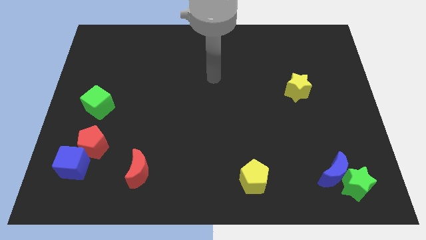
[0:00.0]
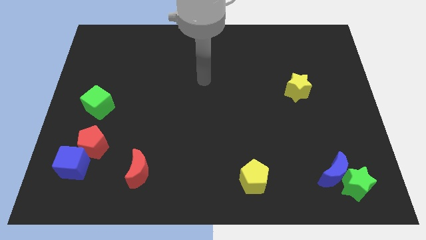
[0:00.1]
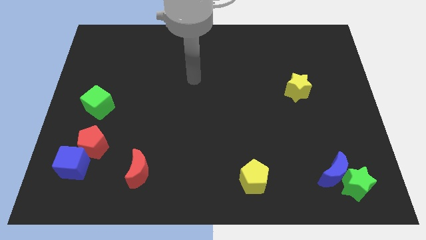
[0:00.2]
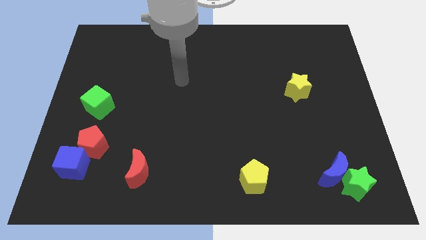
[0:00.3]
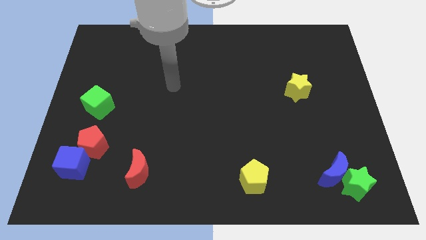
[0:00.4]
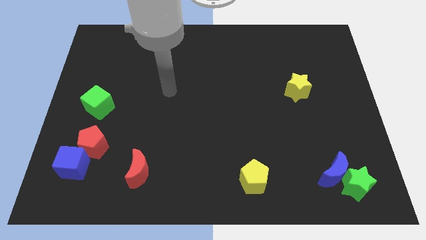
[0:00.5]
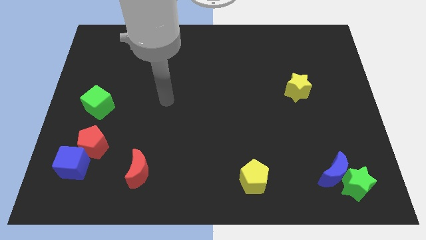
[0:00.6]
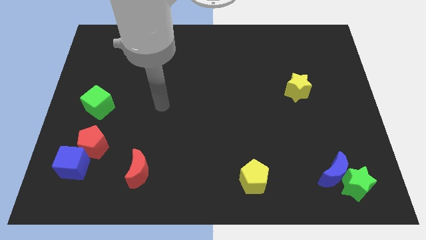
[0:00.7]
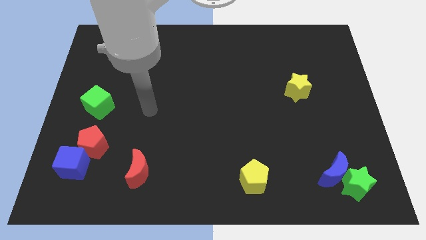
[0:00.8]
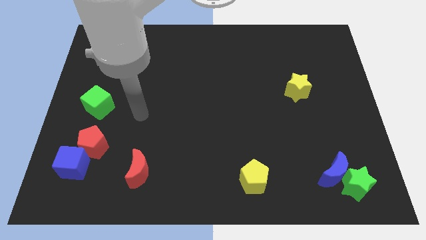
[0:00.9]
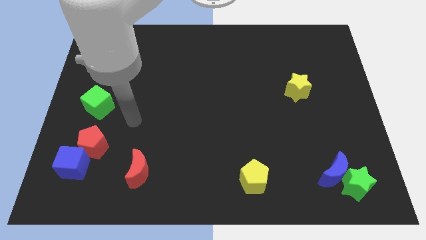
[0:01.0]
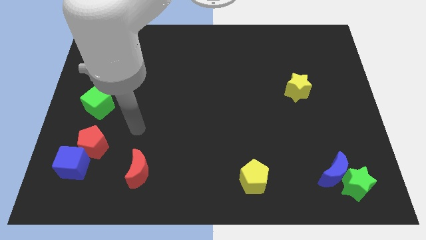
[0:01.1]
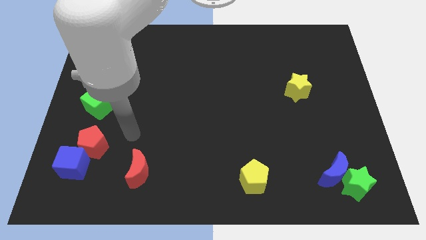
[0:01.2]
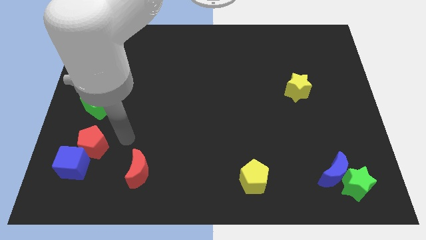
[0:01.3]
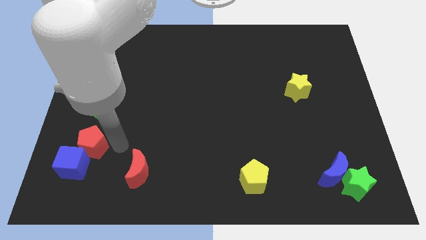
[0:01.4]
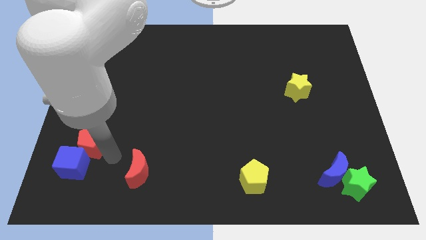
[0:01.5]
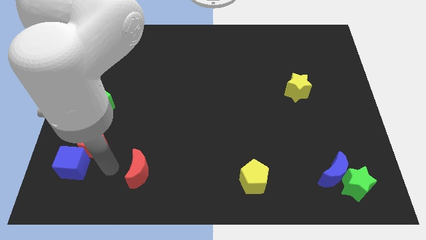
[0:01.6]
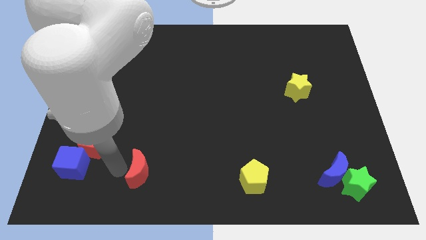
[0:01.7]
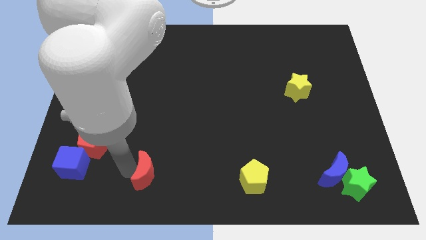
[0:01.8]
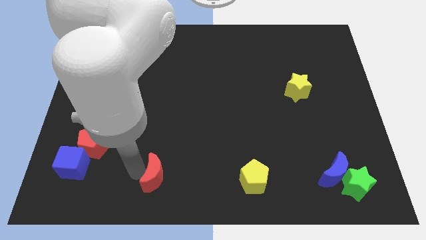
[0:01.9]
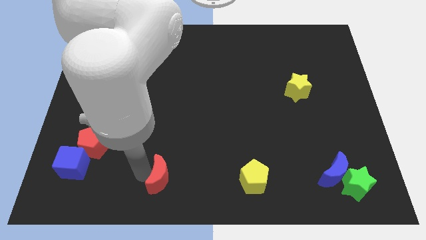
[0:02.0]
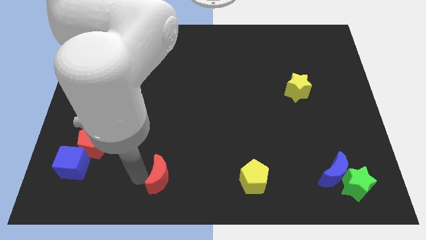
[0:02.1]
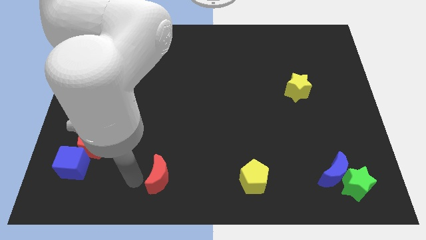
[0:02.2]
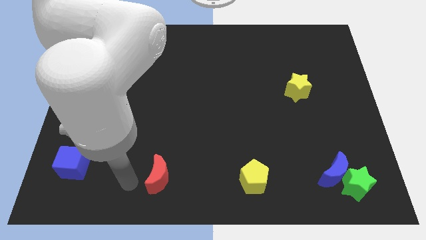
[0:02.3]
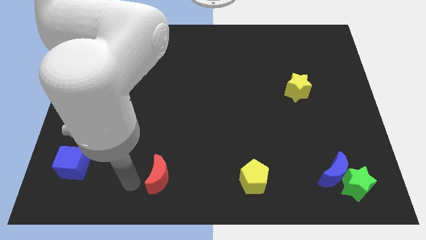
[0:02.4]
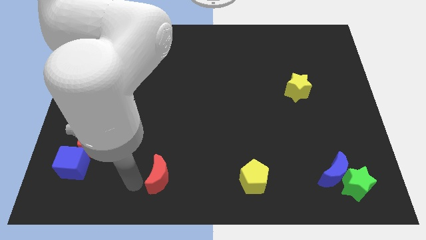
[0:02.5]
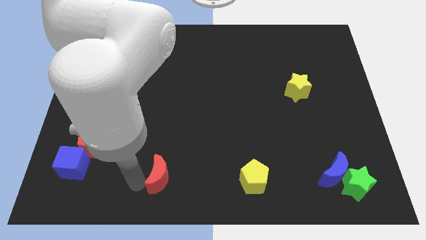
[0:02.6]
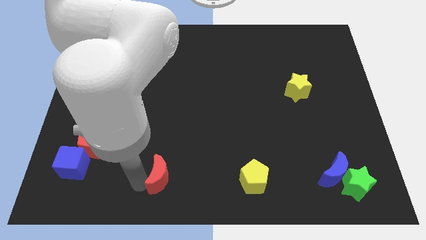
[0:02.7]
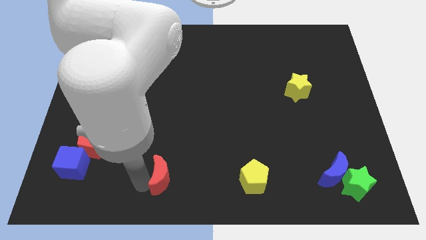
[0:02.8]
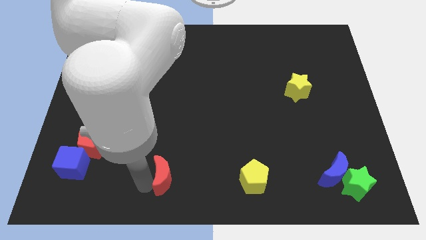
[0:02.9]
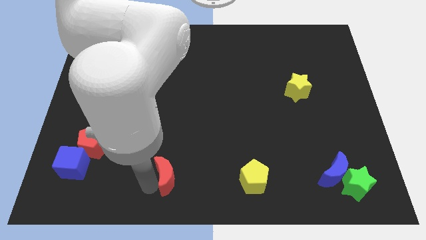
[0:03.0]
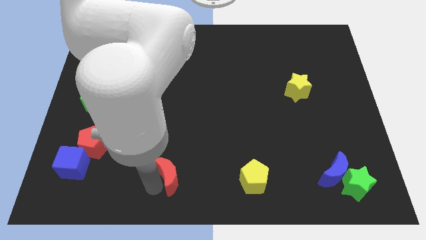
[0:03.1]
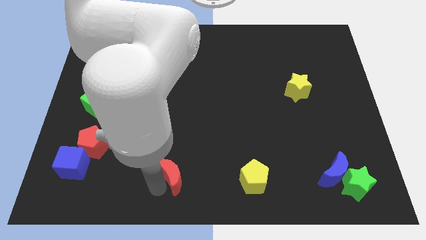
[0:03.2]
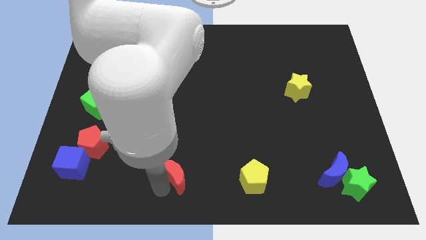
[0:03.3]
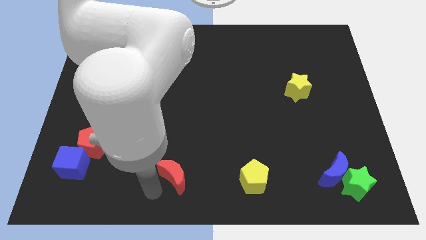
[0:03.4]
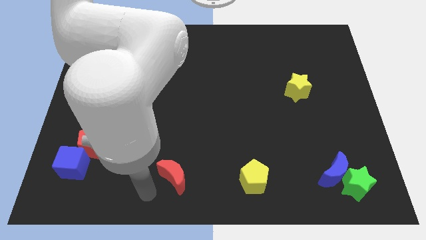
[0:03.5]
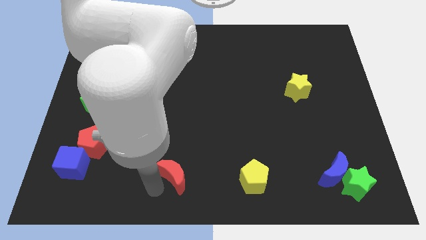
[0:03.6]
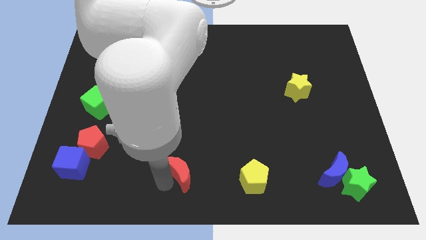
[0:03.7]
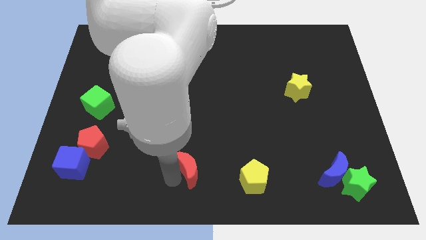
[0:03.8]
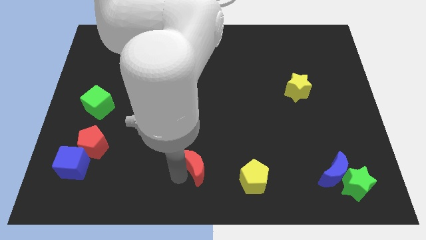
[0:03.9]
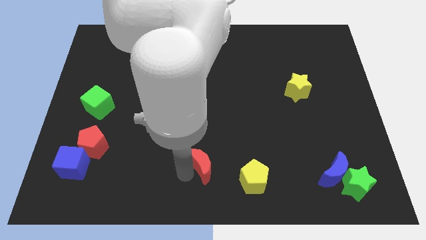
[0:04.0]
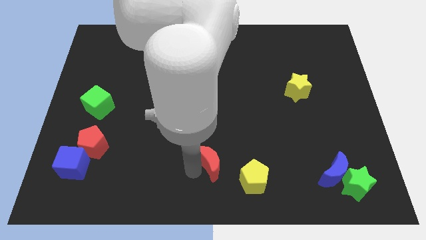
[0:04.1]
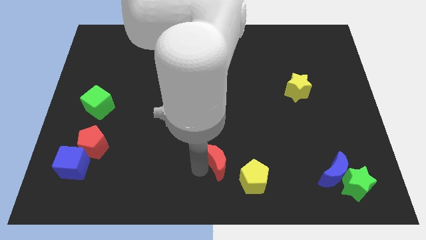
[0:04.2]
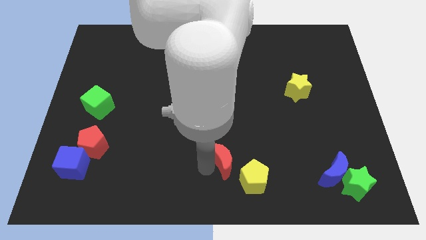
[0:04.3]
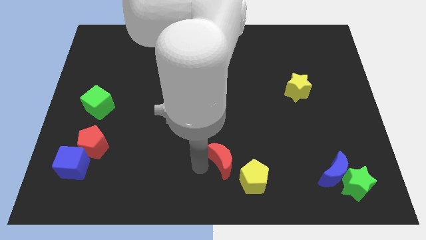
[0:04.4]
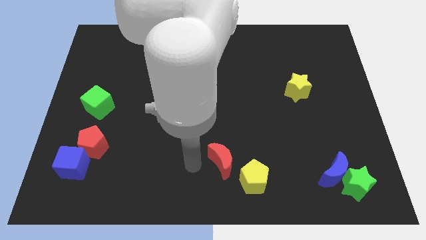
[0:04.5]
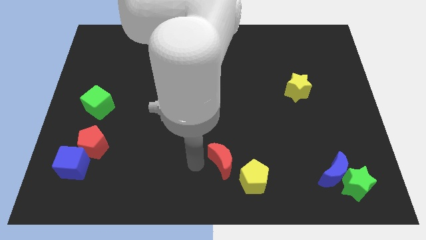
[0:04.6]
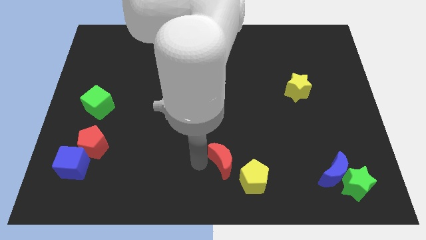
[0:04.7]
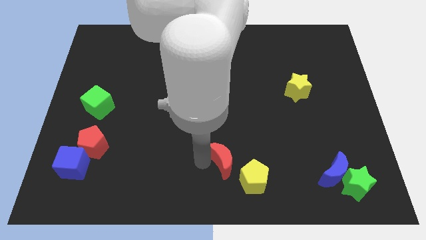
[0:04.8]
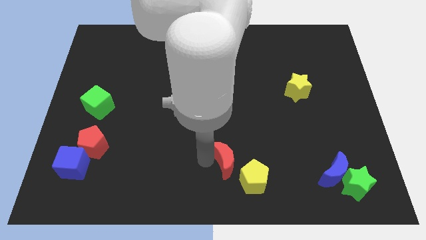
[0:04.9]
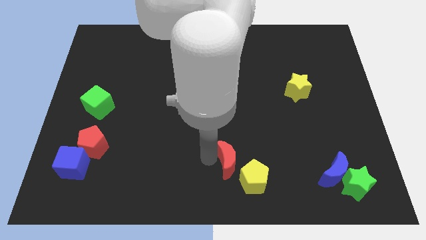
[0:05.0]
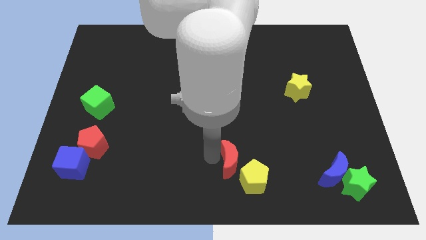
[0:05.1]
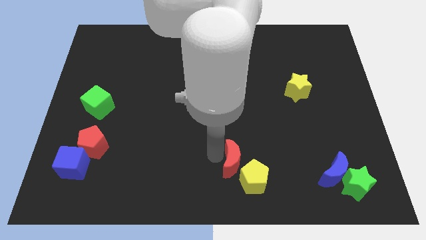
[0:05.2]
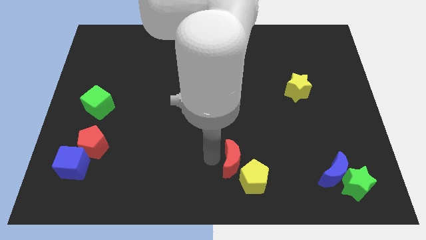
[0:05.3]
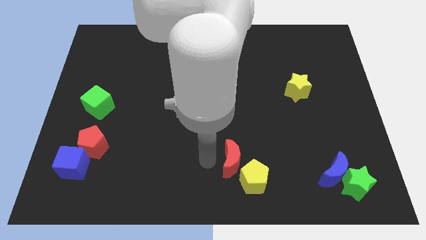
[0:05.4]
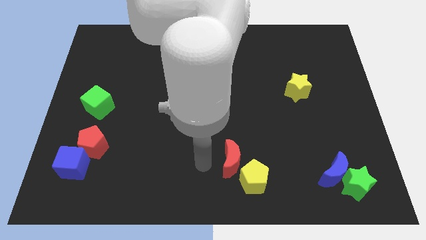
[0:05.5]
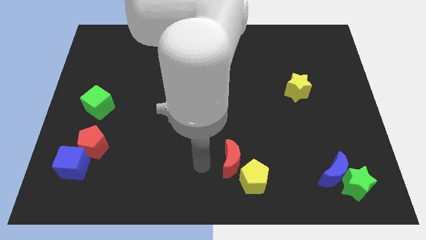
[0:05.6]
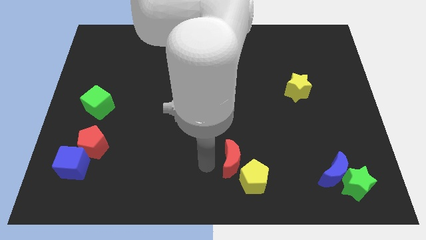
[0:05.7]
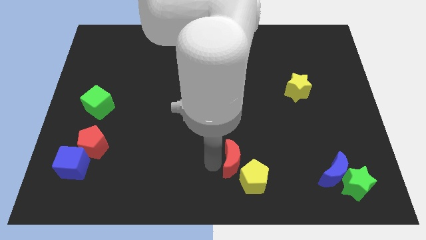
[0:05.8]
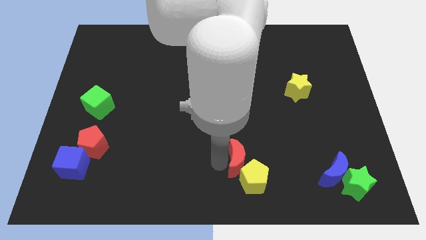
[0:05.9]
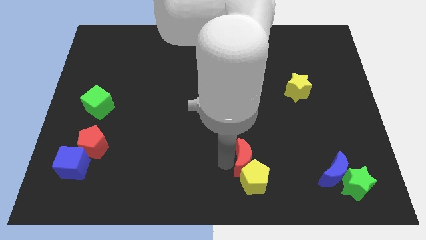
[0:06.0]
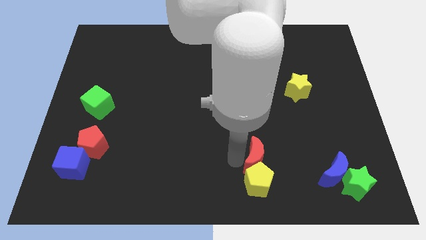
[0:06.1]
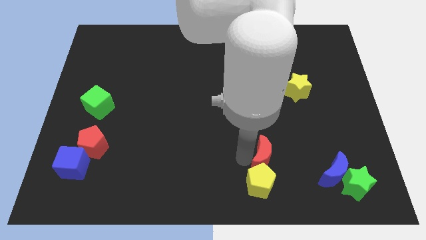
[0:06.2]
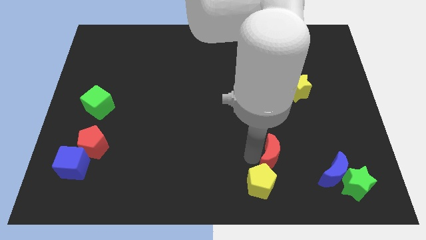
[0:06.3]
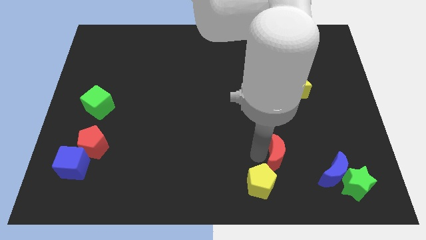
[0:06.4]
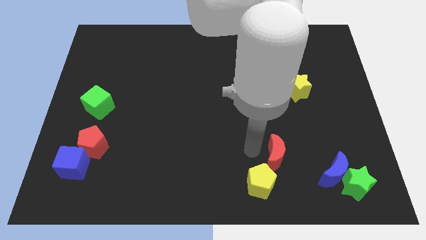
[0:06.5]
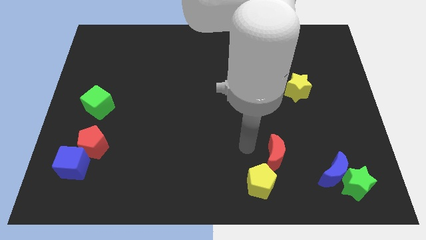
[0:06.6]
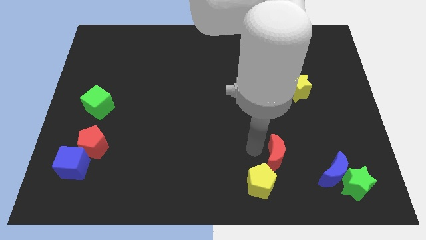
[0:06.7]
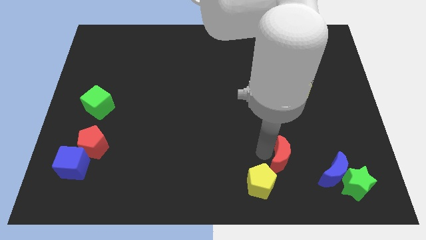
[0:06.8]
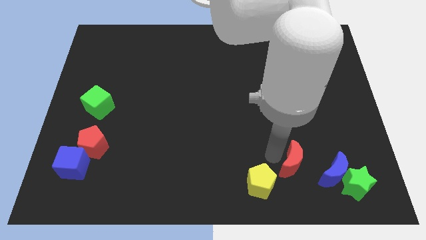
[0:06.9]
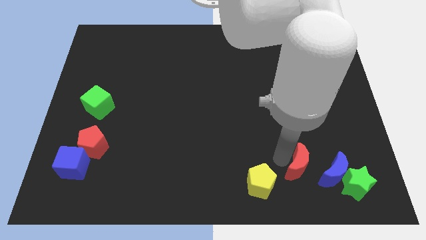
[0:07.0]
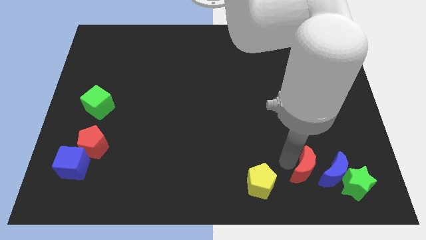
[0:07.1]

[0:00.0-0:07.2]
put the red moon to the blue moon

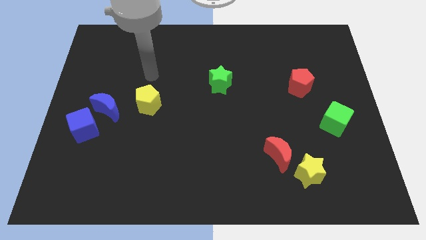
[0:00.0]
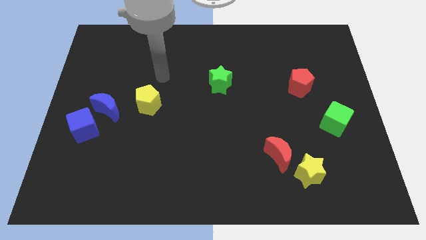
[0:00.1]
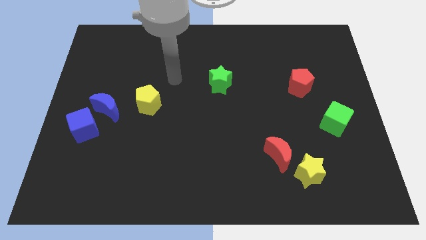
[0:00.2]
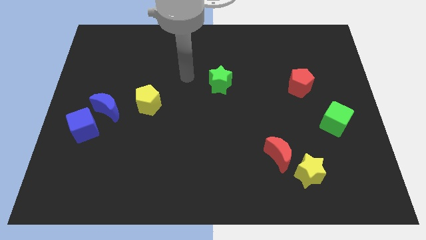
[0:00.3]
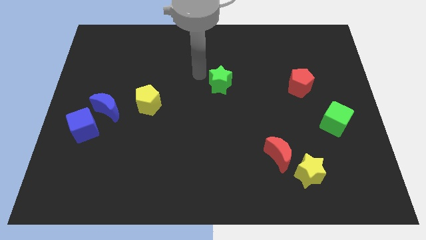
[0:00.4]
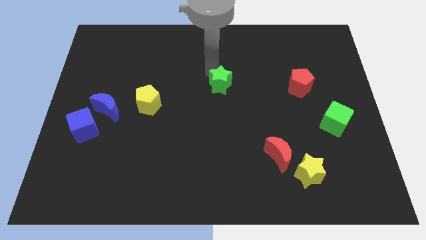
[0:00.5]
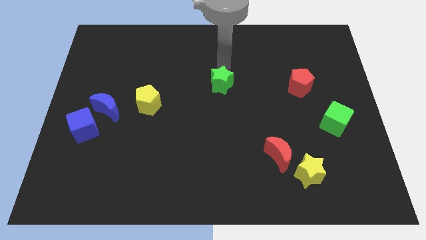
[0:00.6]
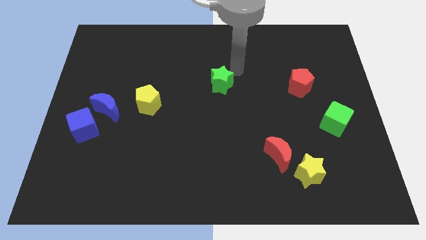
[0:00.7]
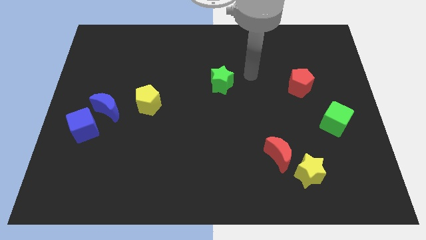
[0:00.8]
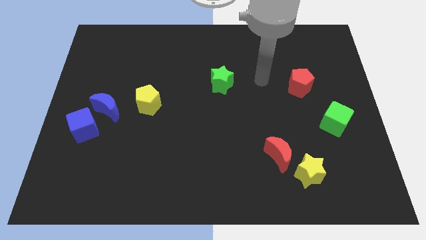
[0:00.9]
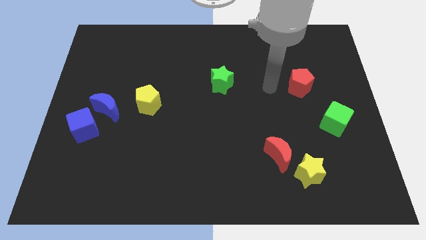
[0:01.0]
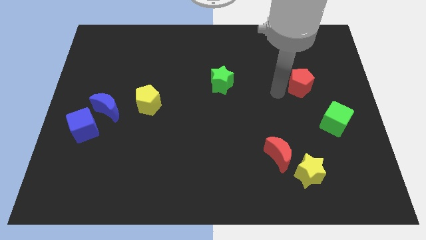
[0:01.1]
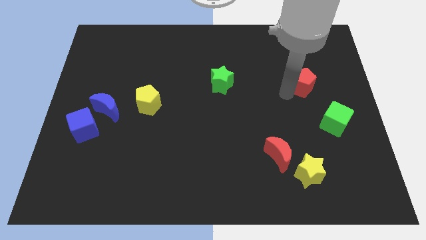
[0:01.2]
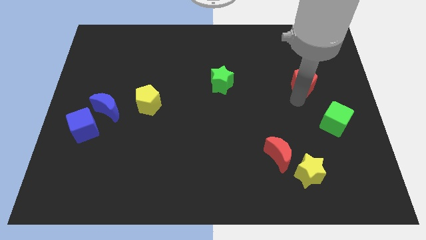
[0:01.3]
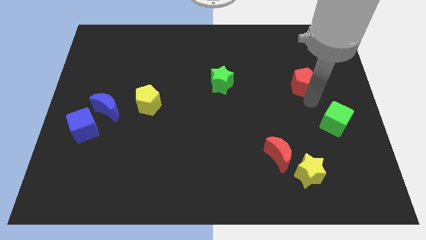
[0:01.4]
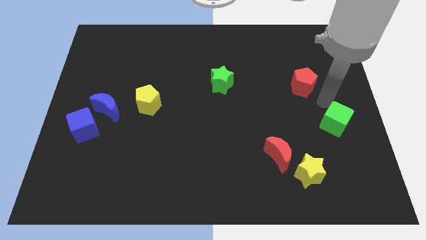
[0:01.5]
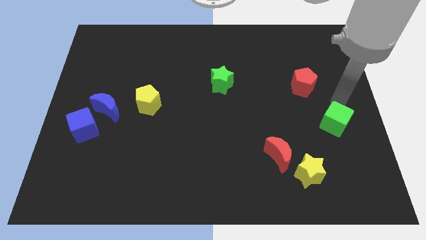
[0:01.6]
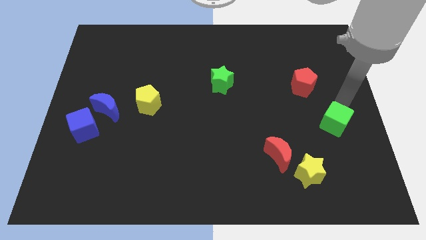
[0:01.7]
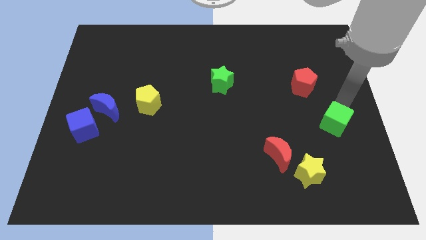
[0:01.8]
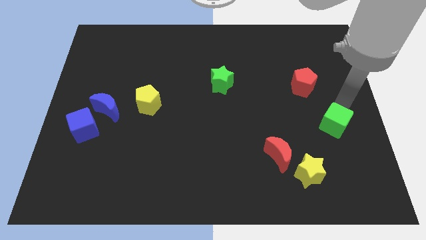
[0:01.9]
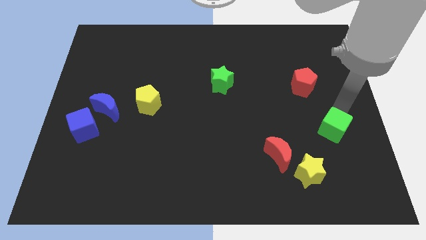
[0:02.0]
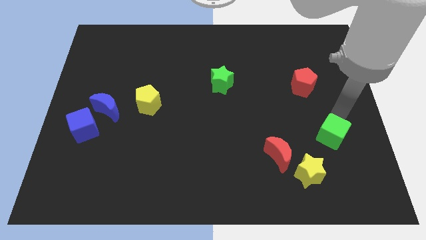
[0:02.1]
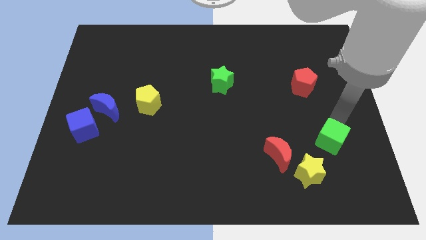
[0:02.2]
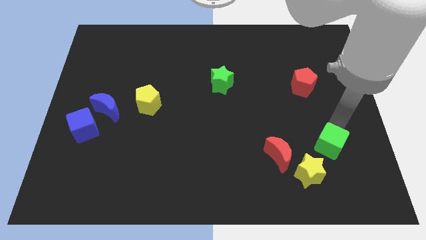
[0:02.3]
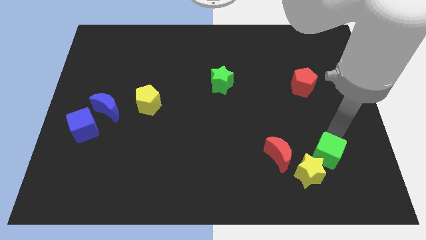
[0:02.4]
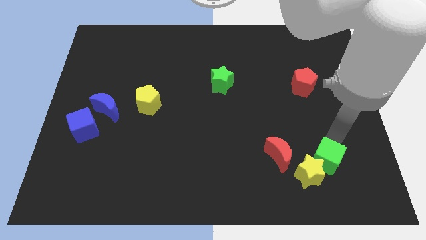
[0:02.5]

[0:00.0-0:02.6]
move the green cube close to the yellow star
